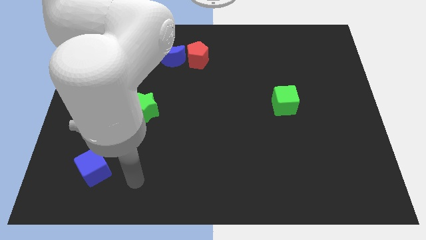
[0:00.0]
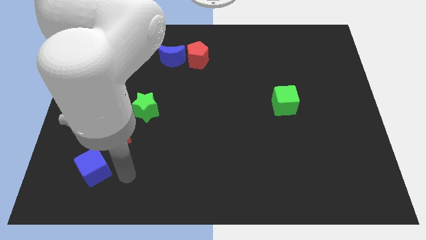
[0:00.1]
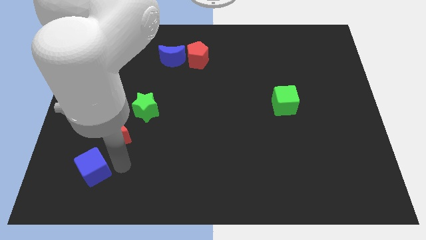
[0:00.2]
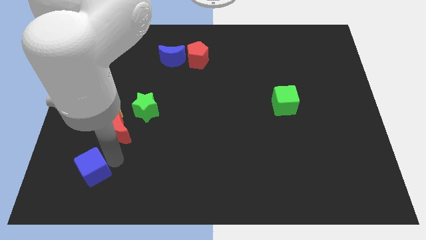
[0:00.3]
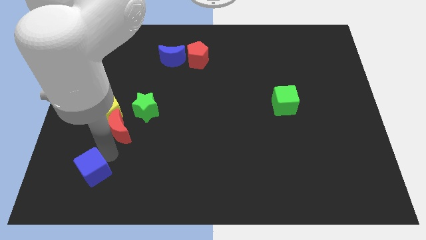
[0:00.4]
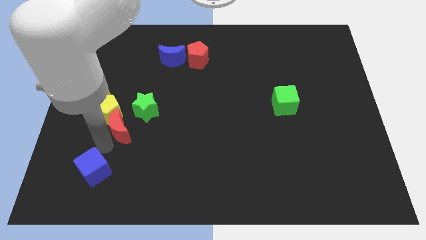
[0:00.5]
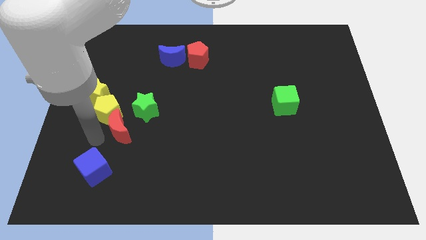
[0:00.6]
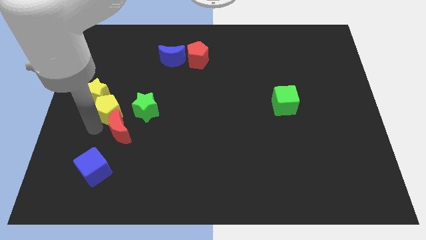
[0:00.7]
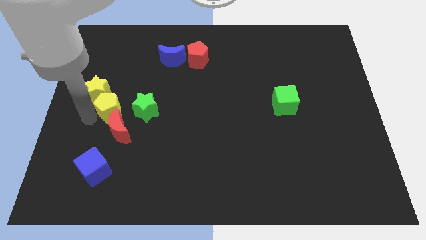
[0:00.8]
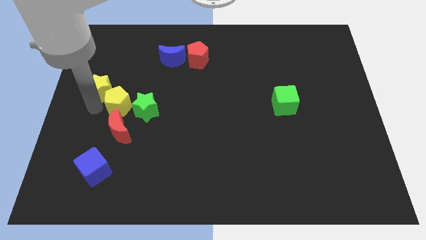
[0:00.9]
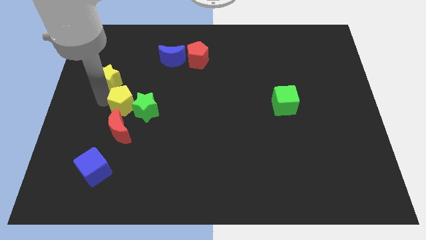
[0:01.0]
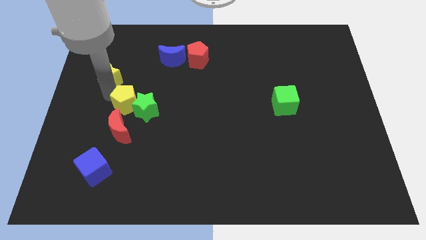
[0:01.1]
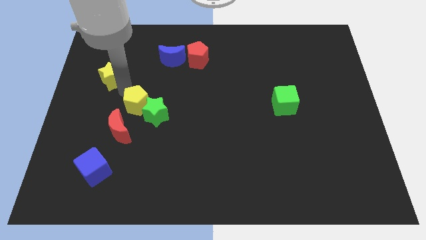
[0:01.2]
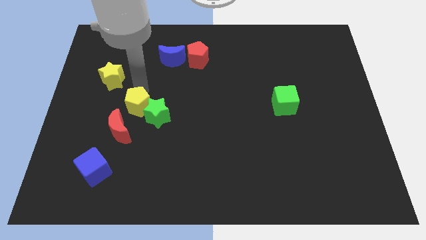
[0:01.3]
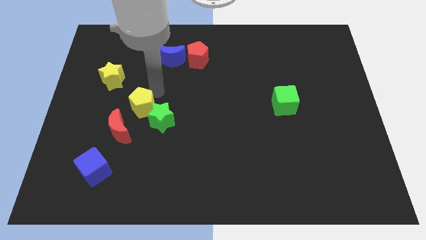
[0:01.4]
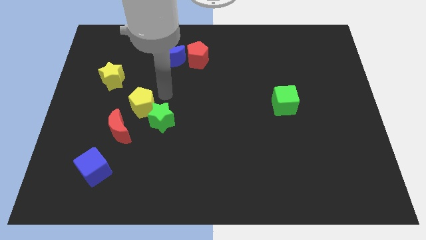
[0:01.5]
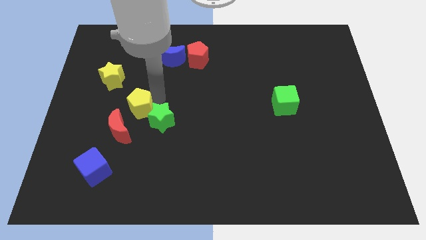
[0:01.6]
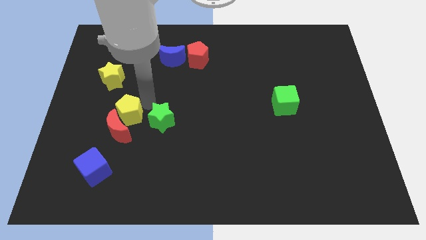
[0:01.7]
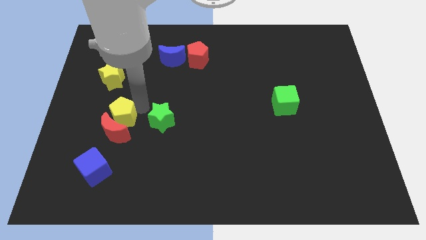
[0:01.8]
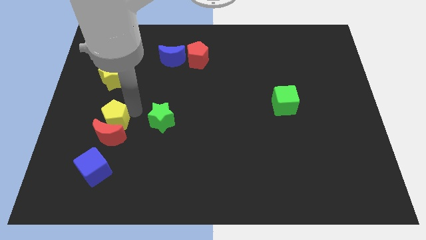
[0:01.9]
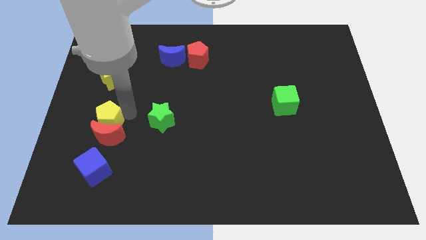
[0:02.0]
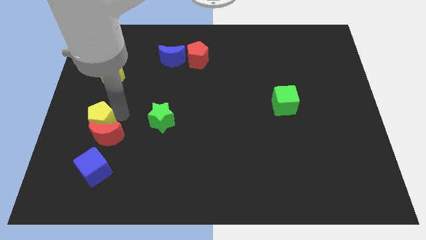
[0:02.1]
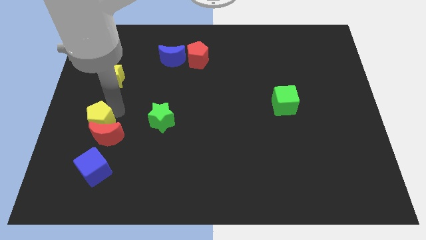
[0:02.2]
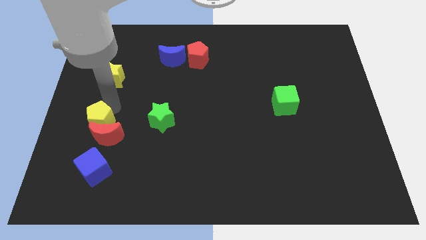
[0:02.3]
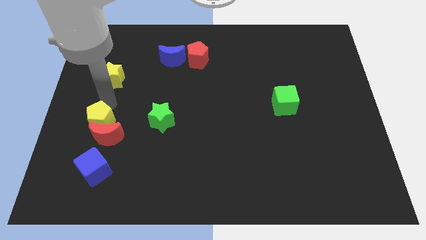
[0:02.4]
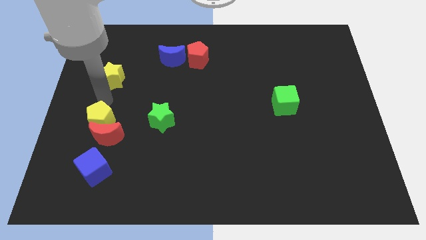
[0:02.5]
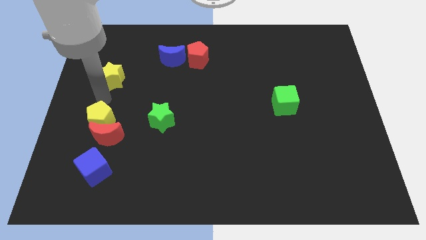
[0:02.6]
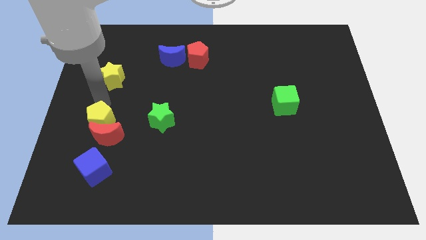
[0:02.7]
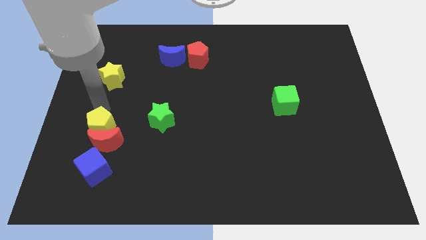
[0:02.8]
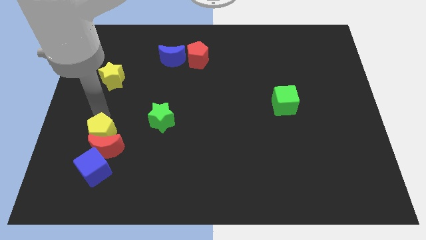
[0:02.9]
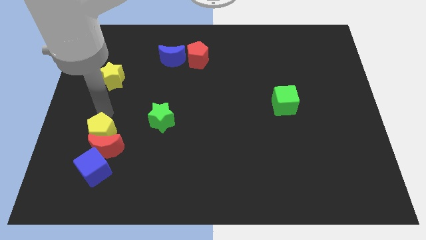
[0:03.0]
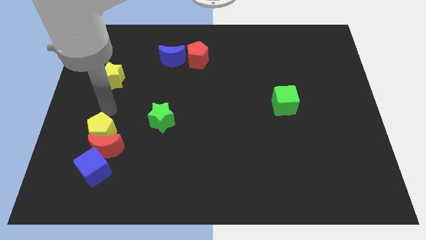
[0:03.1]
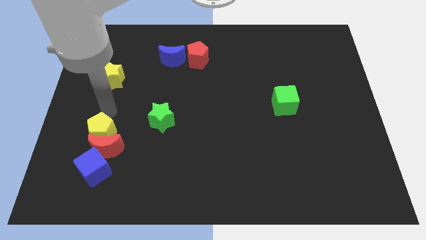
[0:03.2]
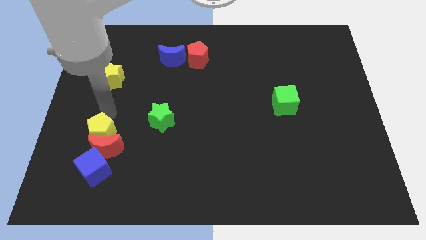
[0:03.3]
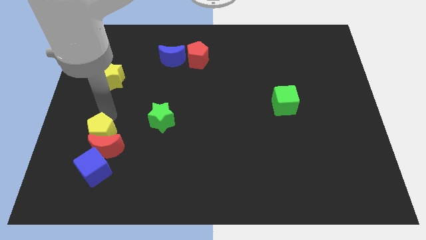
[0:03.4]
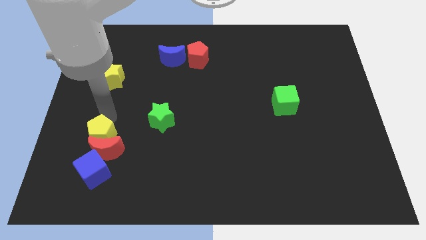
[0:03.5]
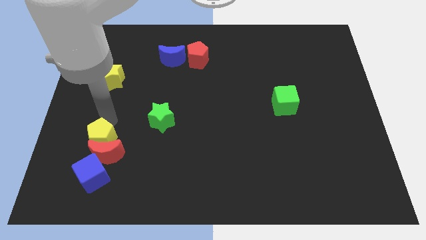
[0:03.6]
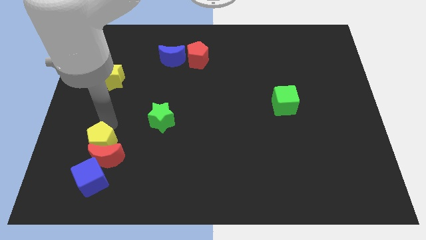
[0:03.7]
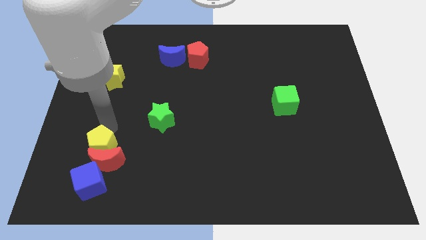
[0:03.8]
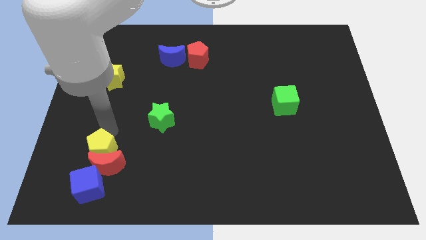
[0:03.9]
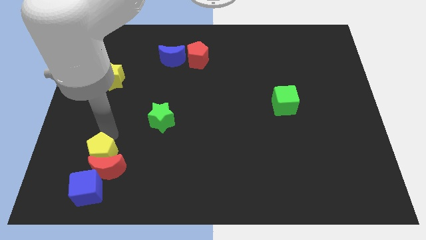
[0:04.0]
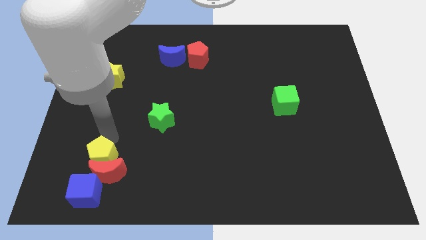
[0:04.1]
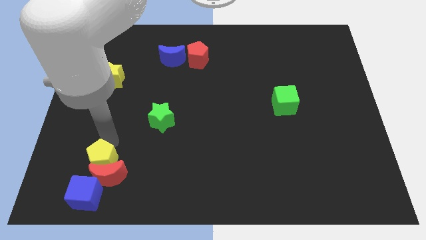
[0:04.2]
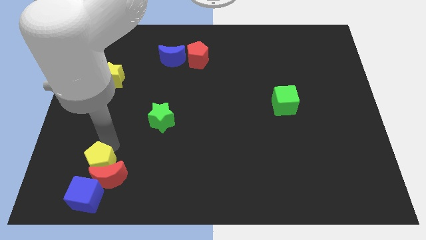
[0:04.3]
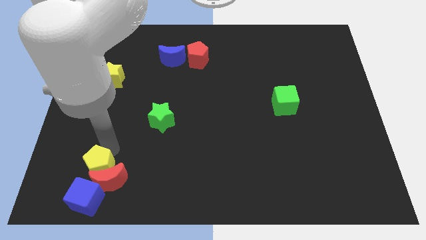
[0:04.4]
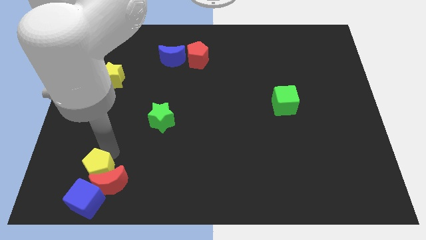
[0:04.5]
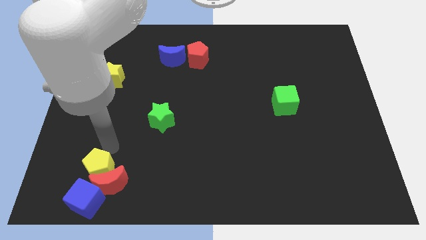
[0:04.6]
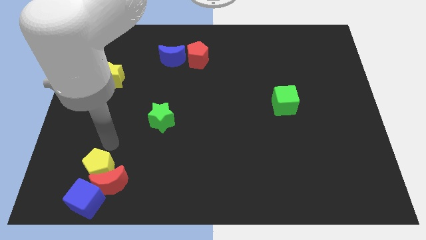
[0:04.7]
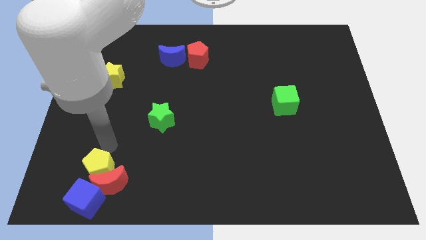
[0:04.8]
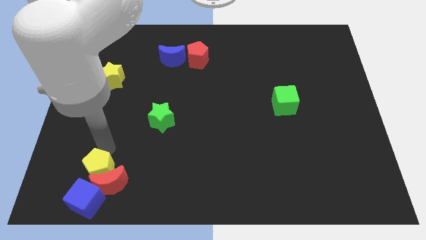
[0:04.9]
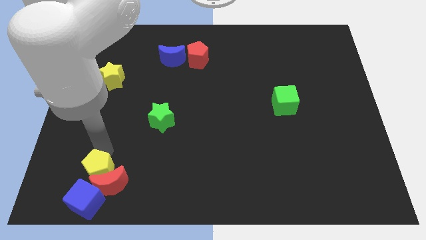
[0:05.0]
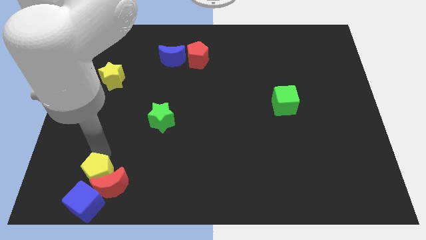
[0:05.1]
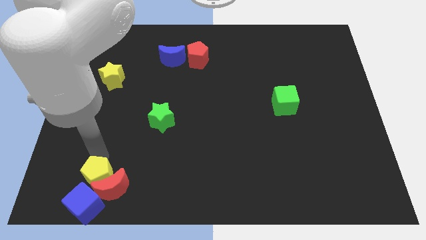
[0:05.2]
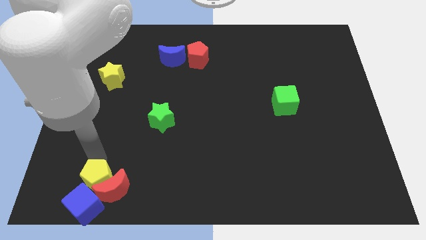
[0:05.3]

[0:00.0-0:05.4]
move the yellow pentagon close to the blue cube

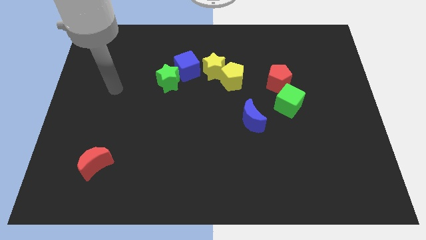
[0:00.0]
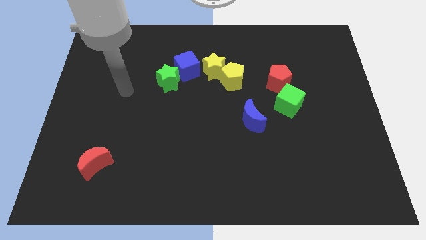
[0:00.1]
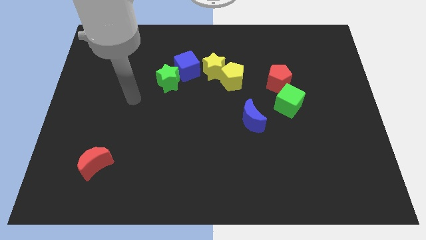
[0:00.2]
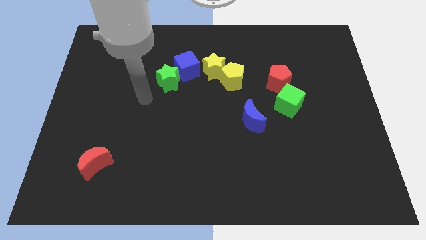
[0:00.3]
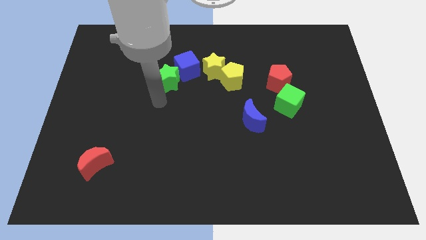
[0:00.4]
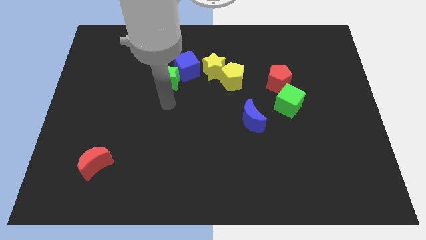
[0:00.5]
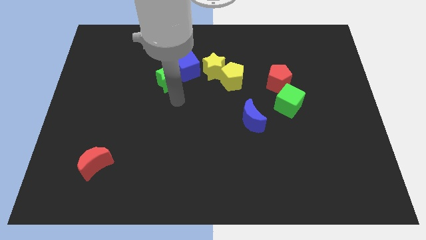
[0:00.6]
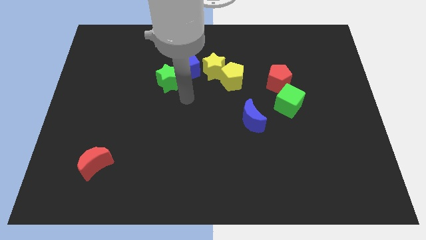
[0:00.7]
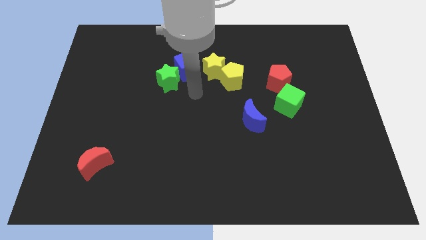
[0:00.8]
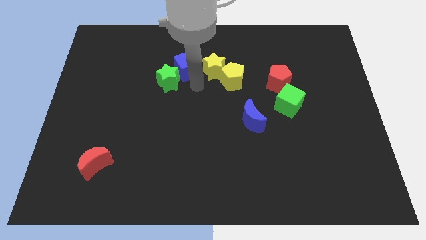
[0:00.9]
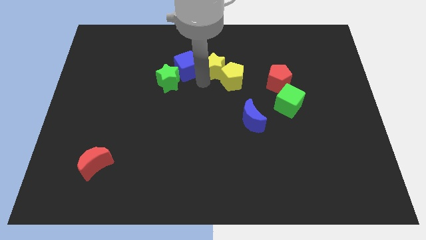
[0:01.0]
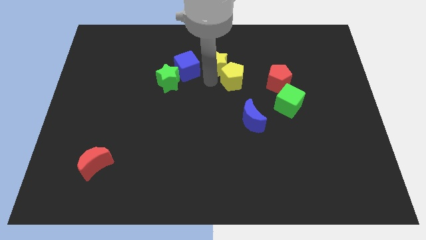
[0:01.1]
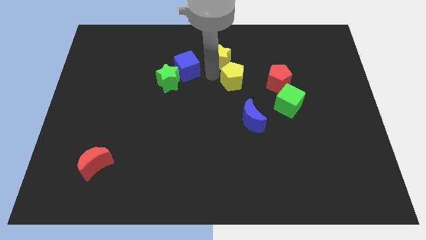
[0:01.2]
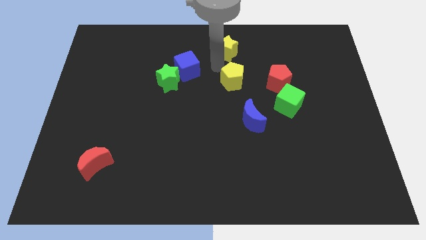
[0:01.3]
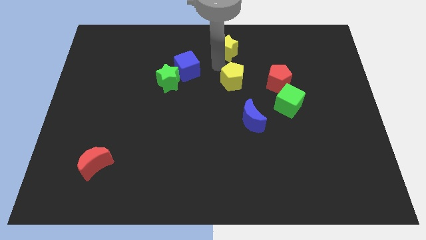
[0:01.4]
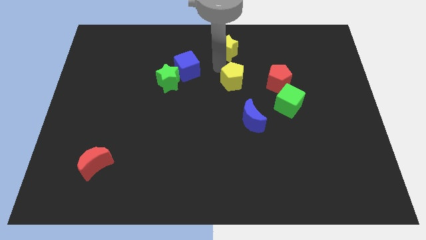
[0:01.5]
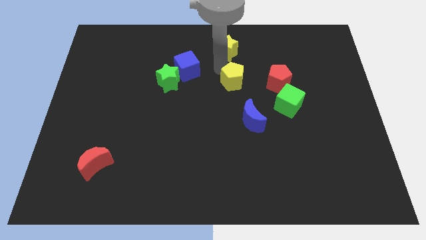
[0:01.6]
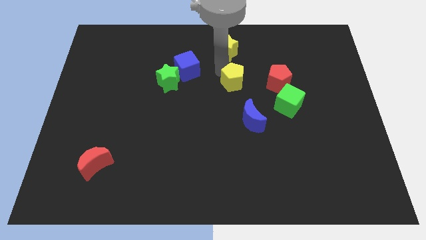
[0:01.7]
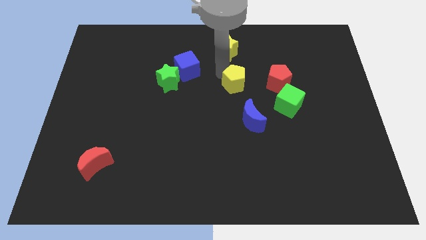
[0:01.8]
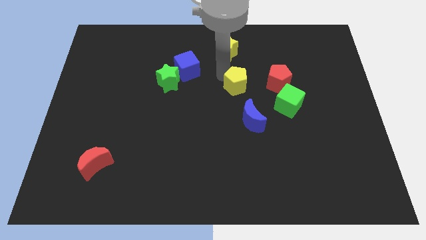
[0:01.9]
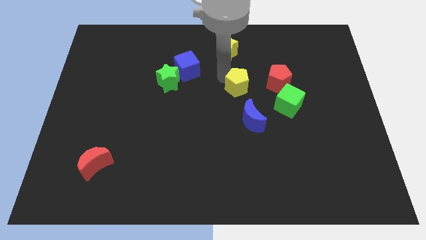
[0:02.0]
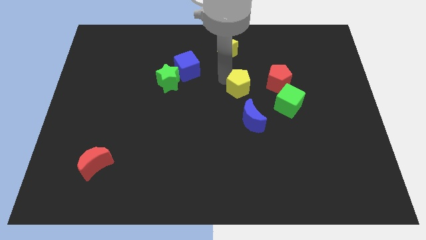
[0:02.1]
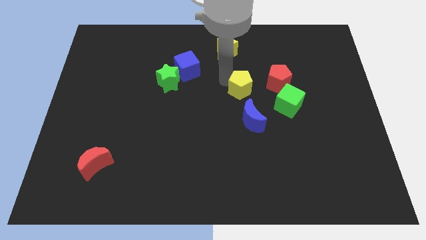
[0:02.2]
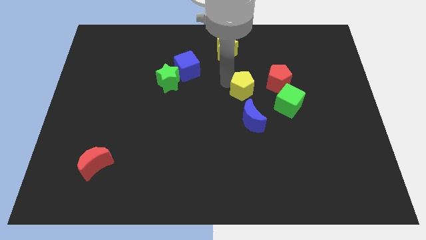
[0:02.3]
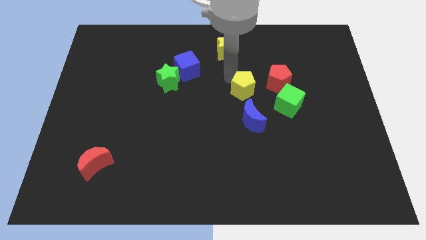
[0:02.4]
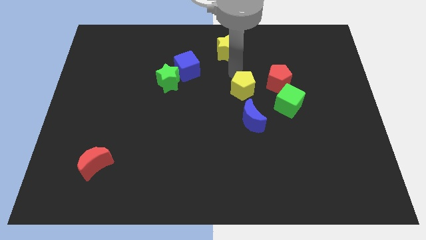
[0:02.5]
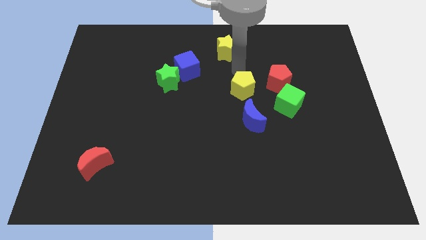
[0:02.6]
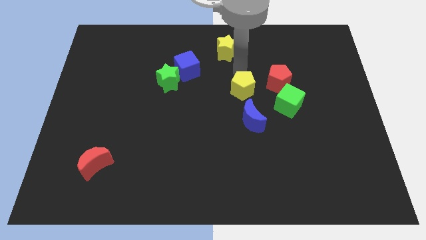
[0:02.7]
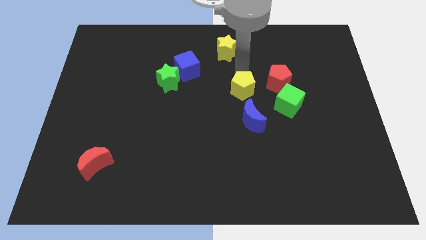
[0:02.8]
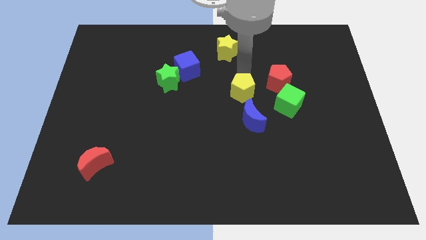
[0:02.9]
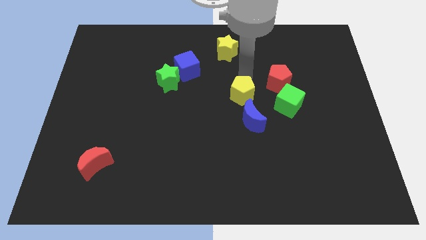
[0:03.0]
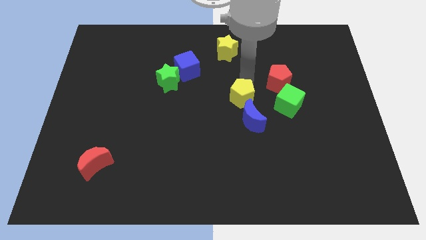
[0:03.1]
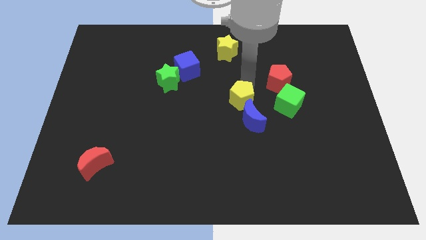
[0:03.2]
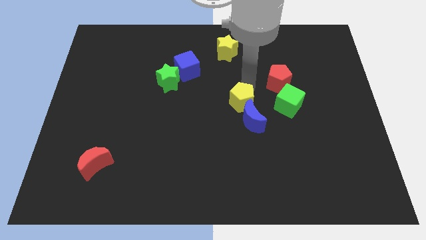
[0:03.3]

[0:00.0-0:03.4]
slide the yellow pentagon towards the blue moon
